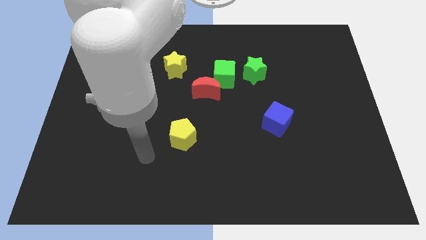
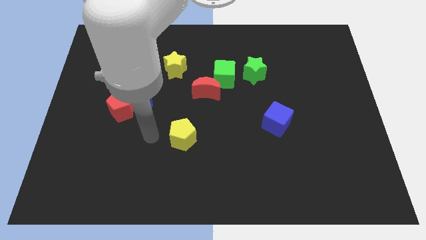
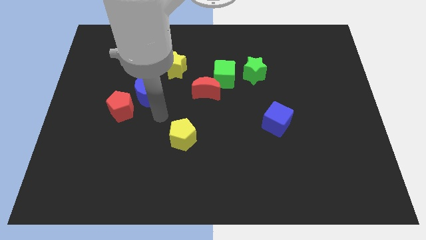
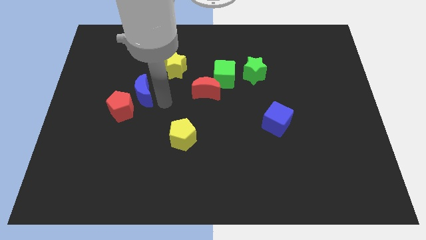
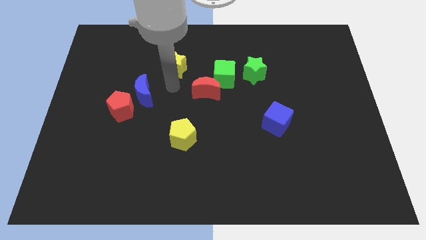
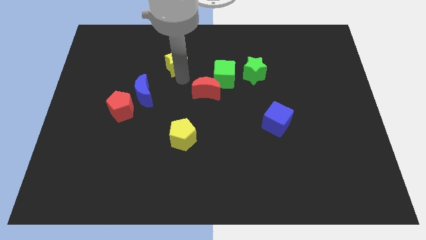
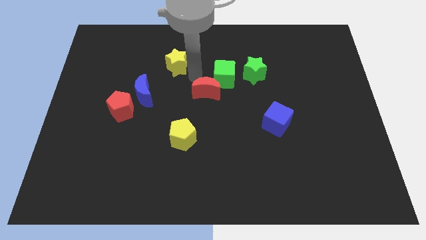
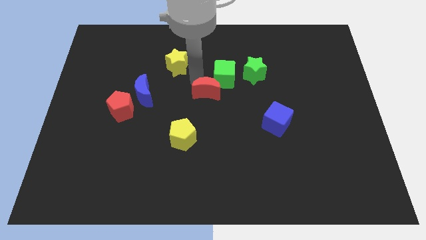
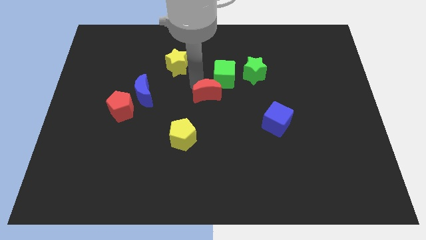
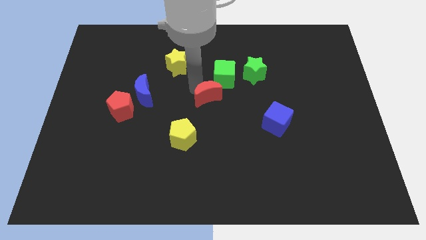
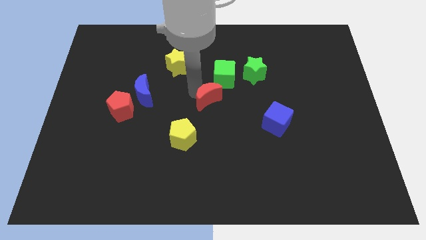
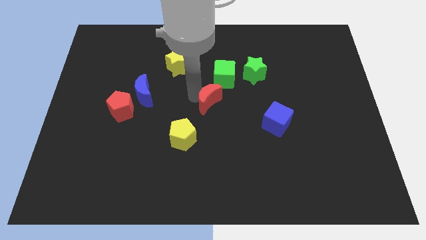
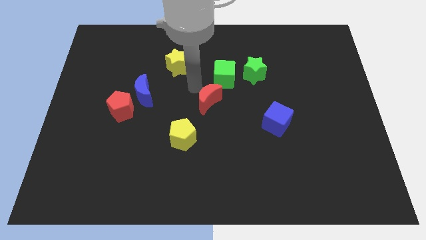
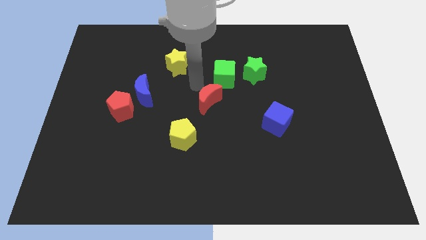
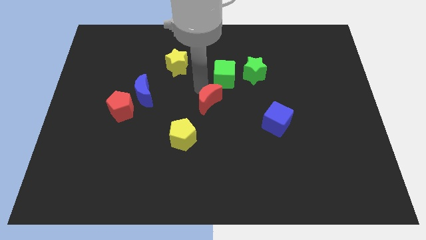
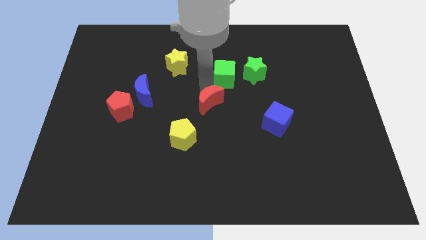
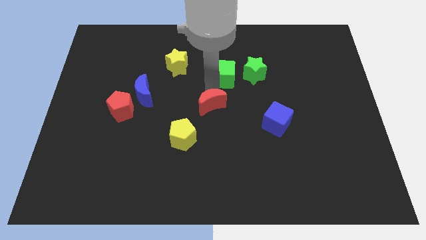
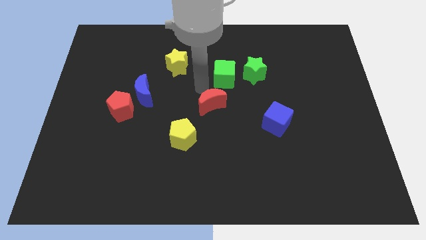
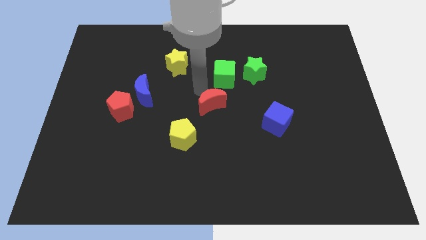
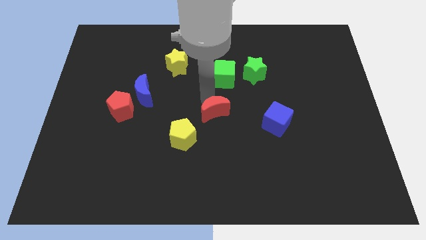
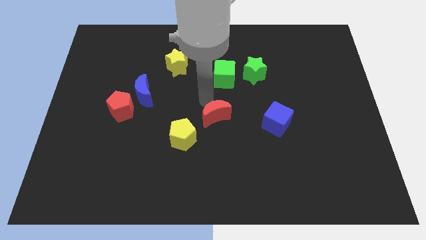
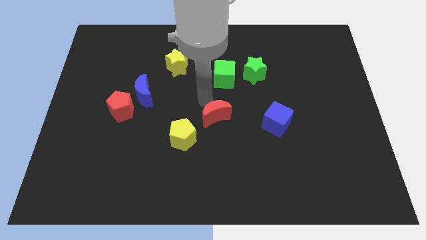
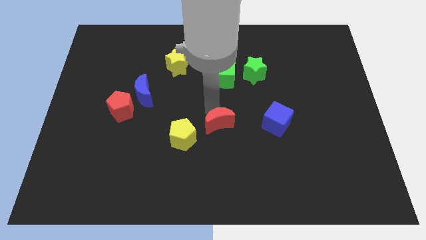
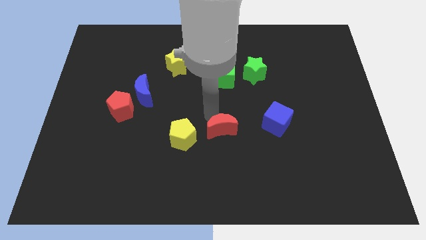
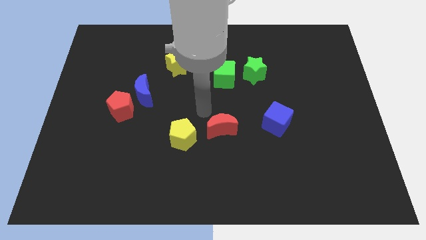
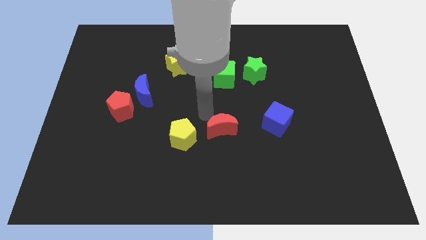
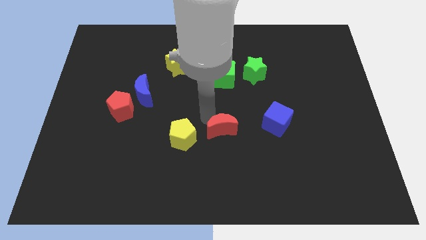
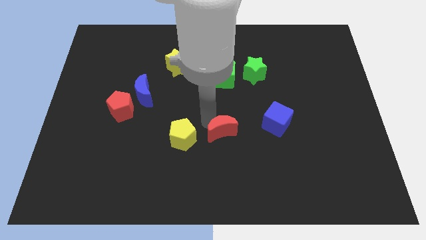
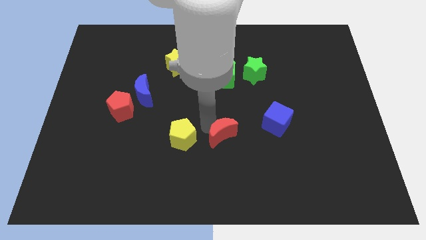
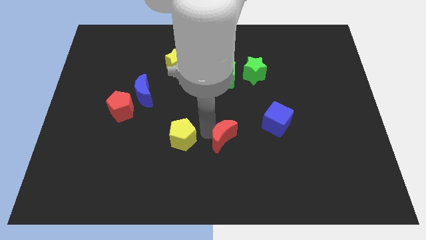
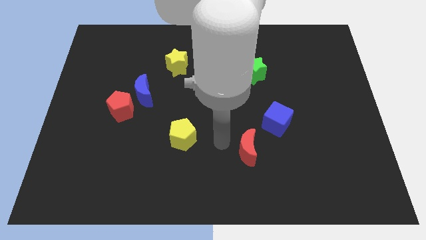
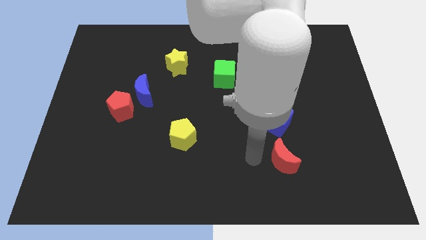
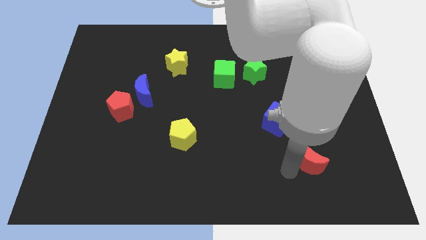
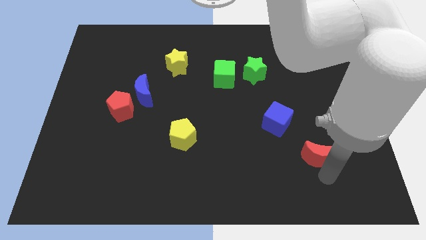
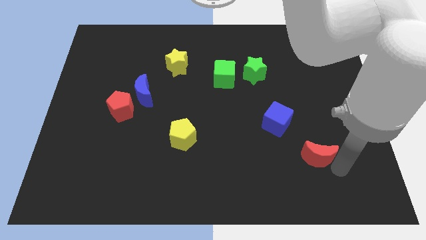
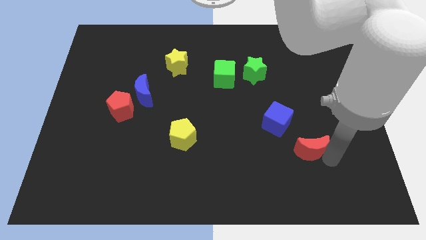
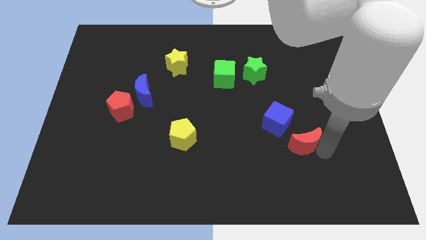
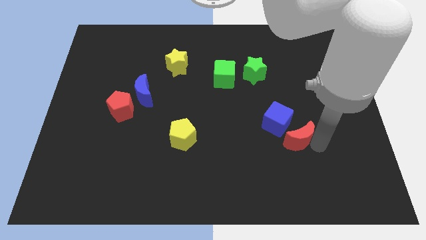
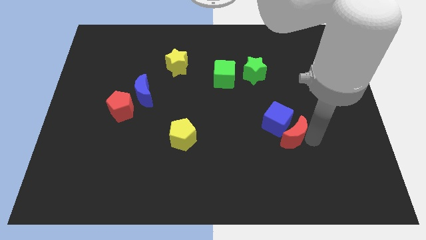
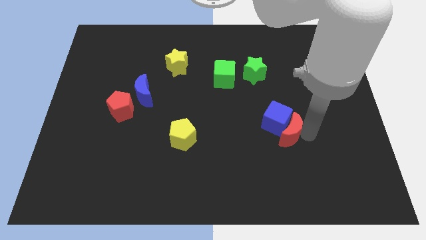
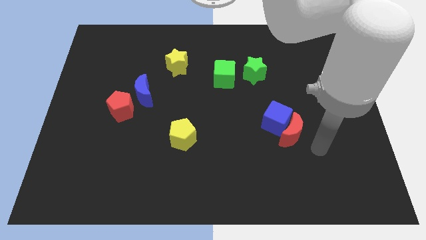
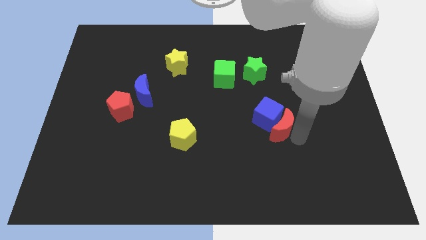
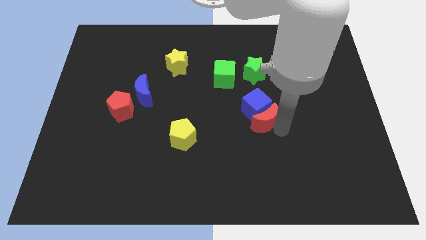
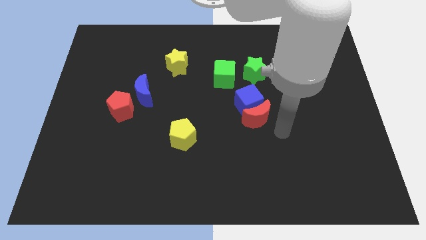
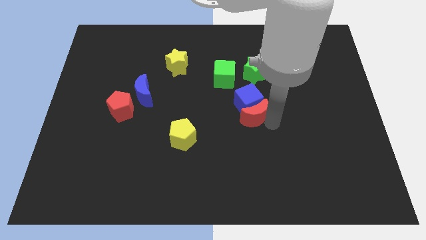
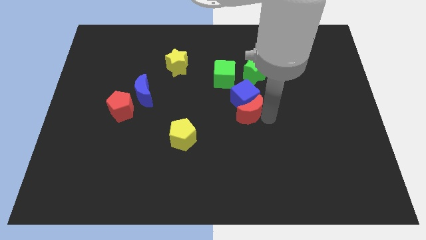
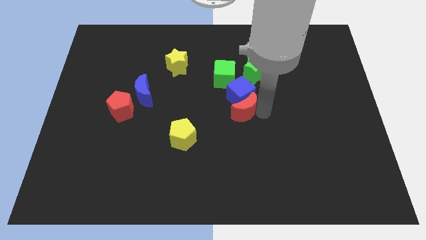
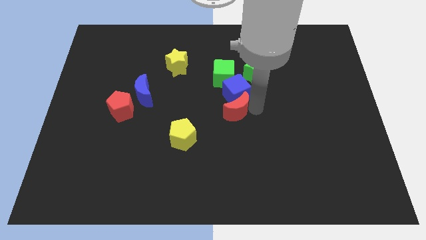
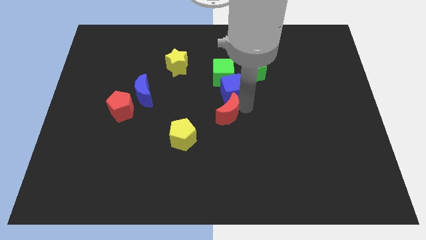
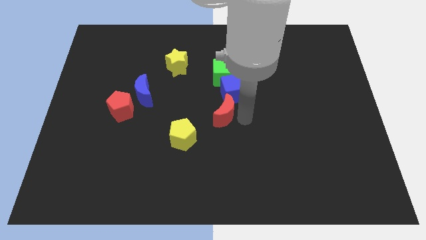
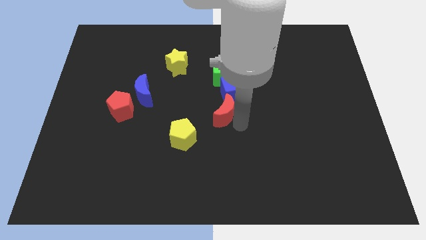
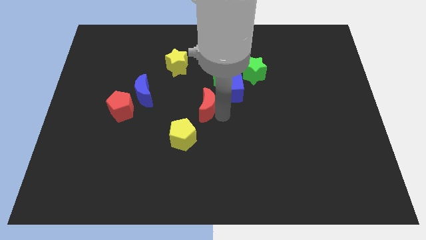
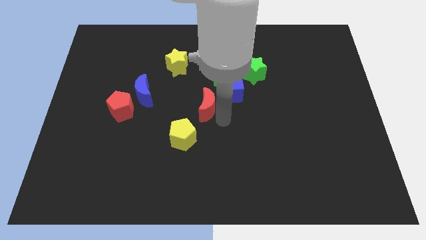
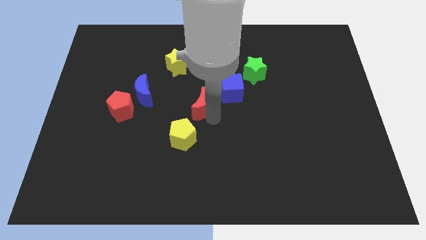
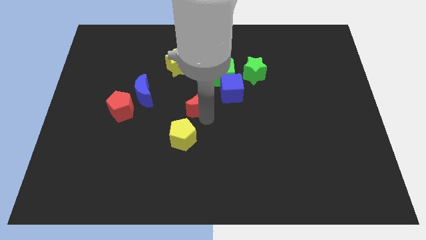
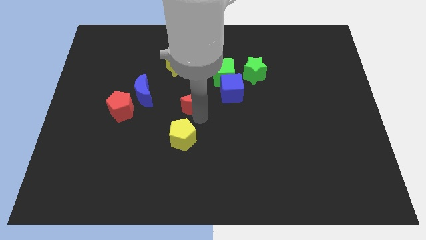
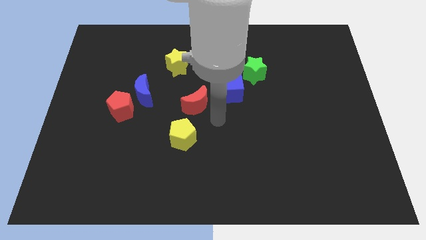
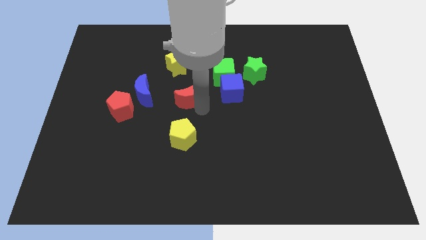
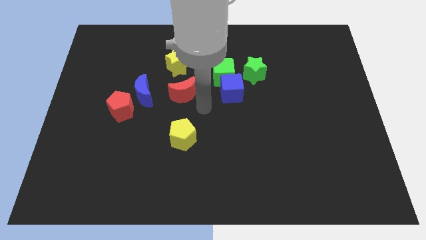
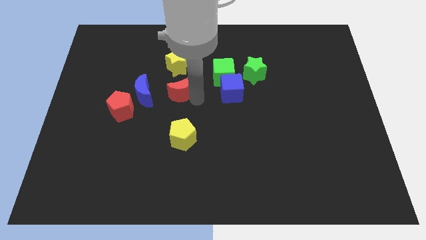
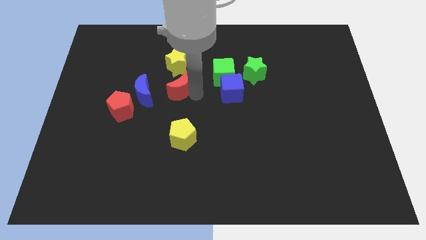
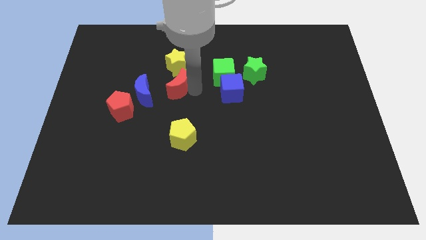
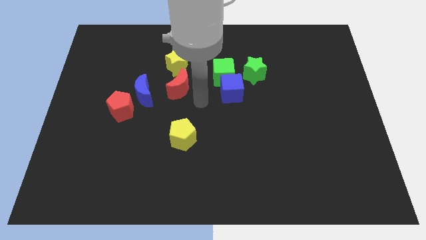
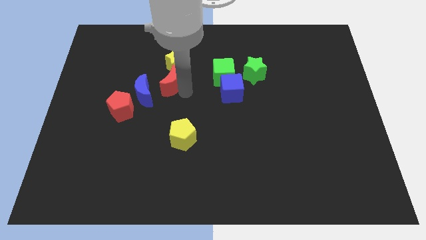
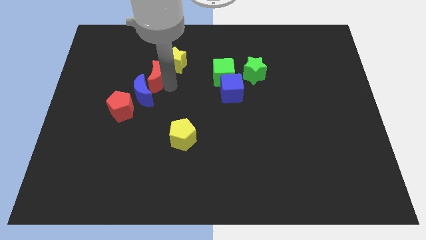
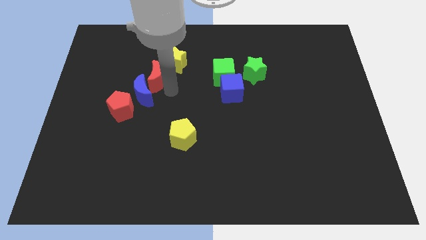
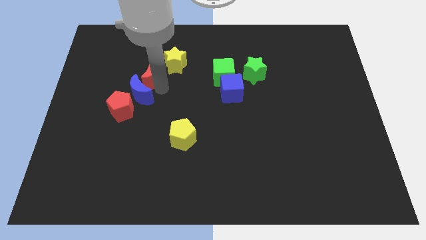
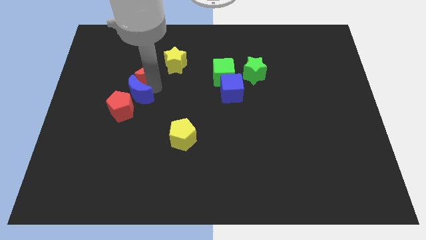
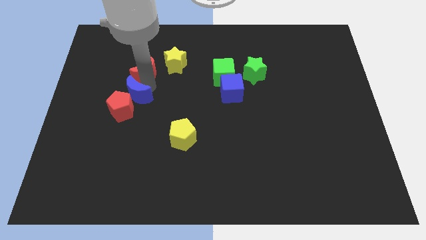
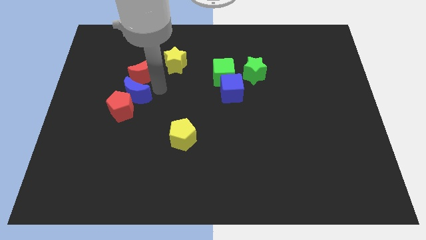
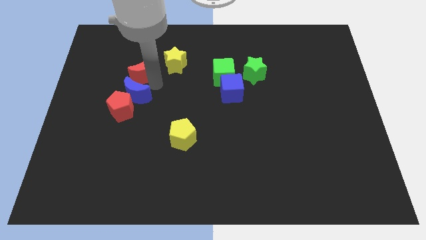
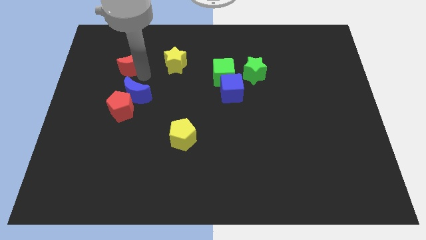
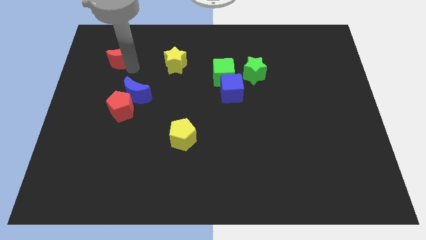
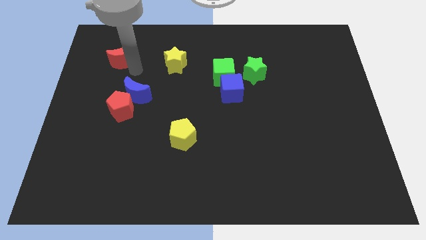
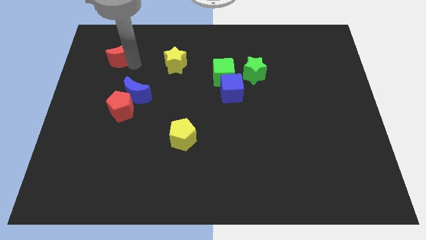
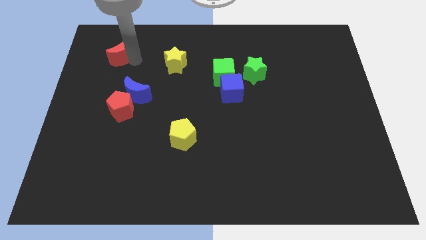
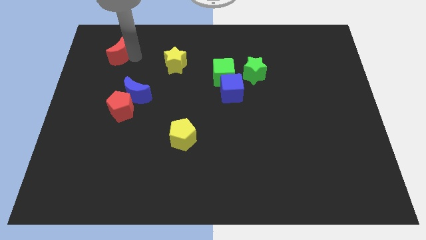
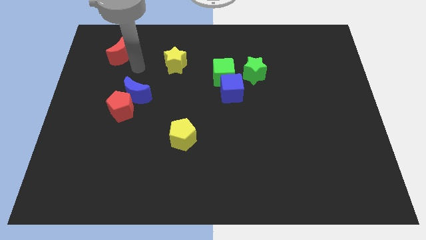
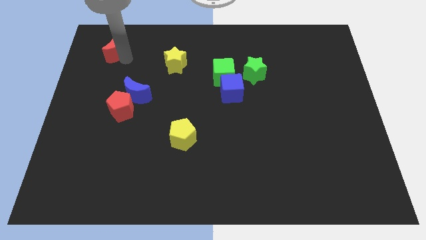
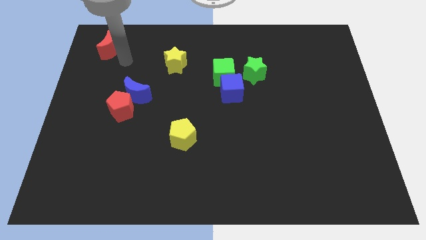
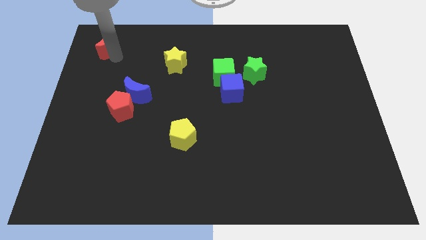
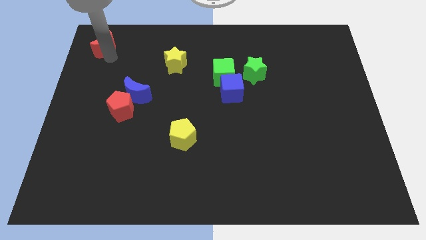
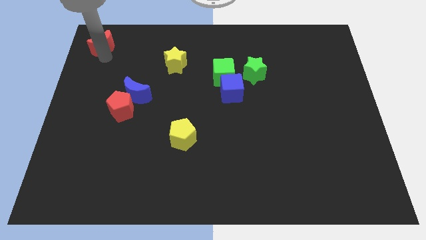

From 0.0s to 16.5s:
slide the red moon to the upper left corner
